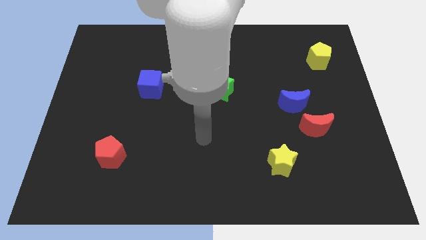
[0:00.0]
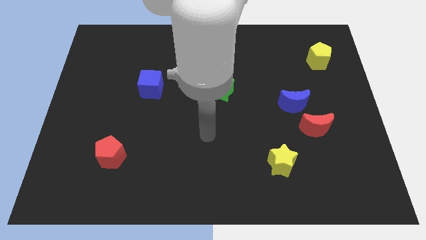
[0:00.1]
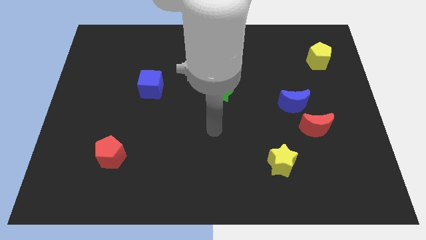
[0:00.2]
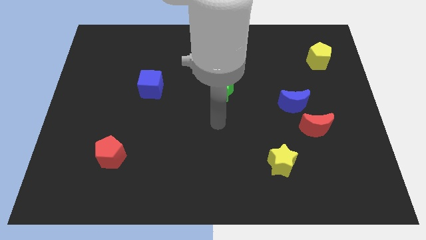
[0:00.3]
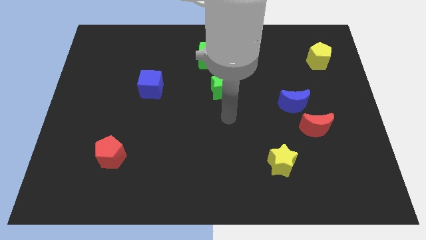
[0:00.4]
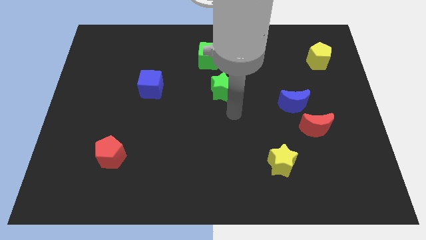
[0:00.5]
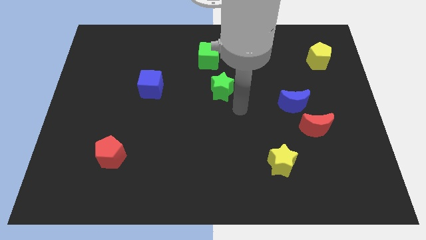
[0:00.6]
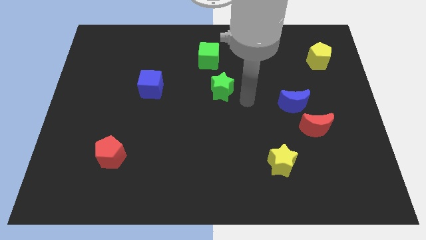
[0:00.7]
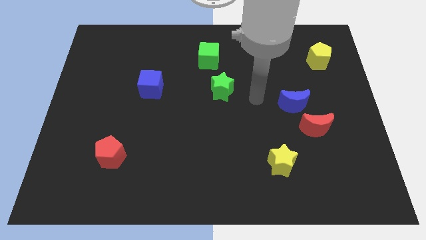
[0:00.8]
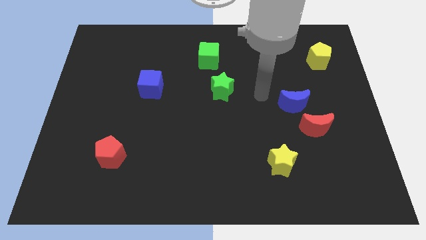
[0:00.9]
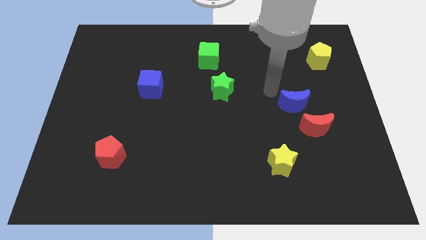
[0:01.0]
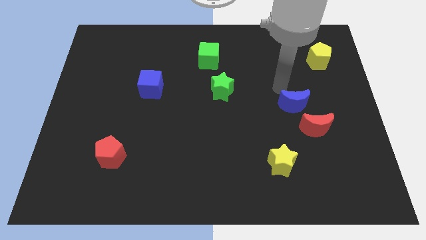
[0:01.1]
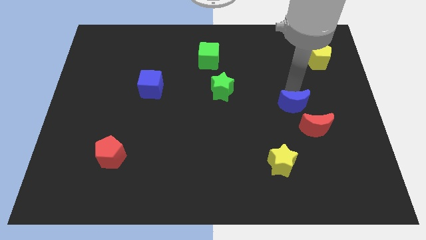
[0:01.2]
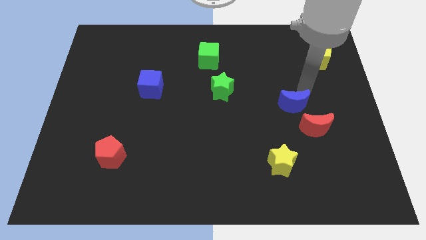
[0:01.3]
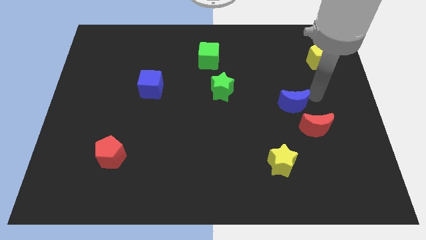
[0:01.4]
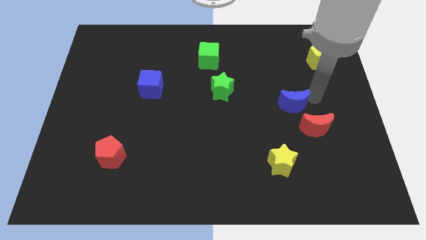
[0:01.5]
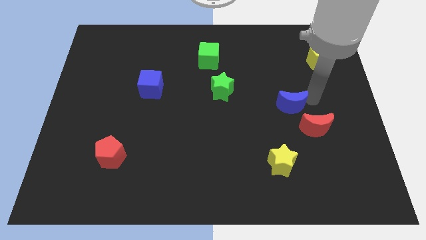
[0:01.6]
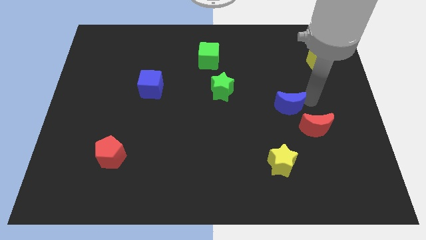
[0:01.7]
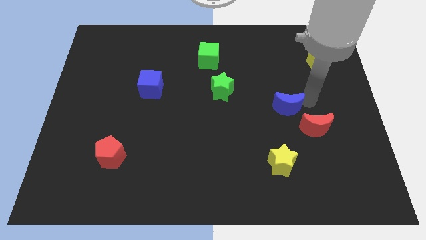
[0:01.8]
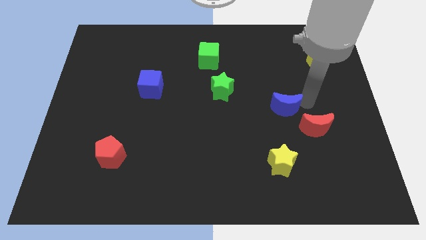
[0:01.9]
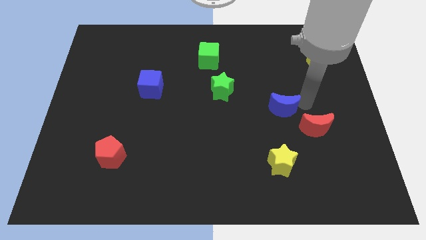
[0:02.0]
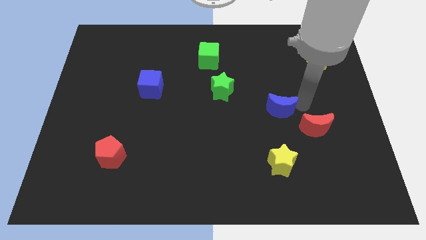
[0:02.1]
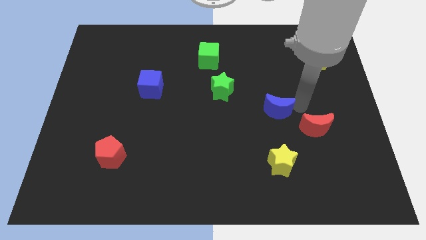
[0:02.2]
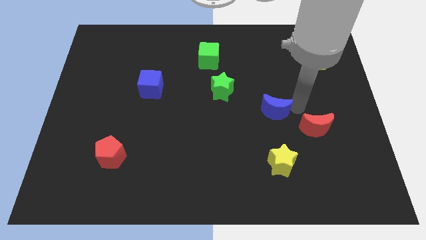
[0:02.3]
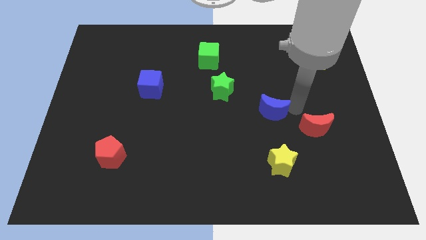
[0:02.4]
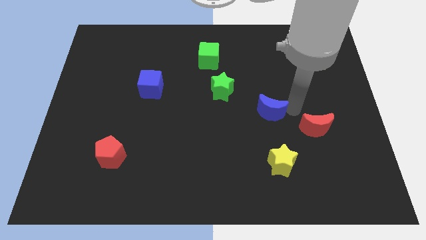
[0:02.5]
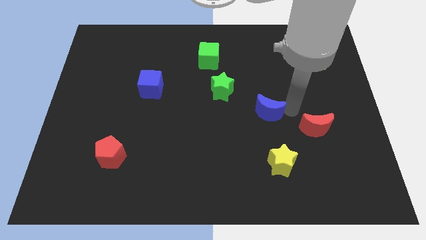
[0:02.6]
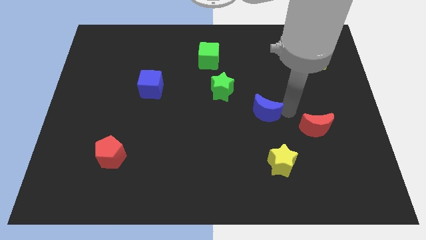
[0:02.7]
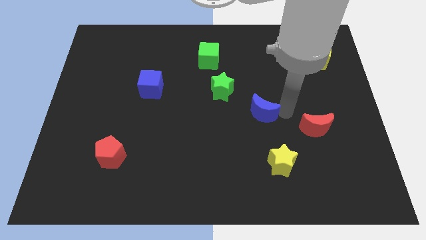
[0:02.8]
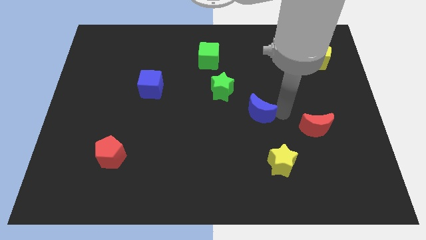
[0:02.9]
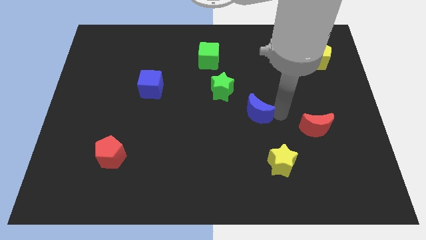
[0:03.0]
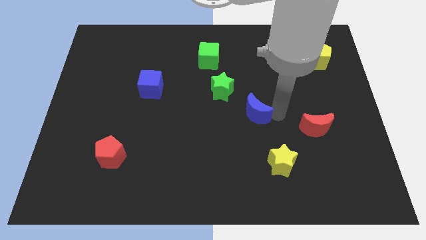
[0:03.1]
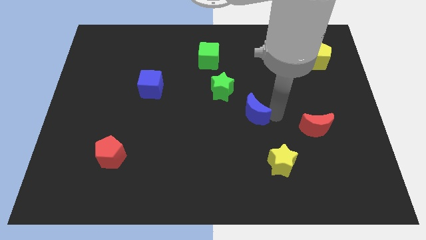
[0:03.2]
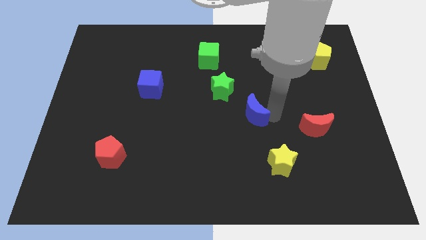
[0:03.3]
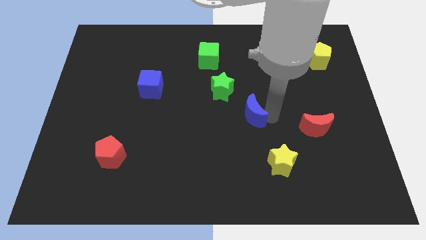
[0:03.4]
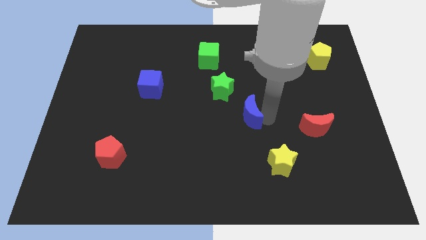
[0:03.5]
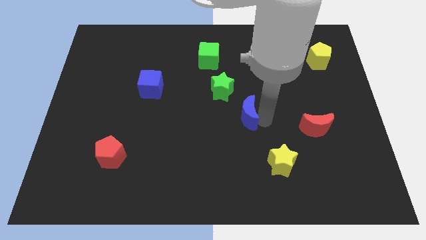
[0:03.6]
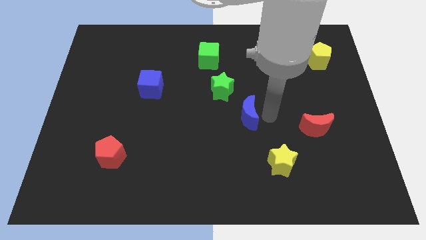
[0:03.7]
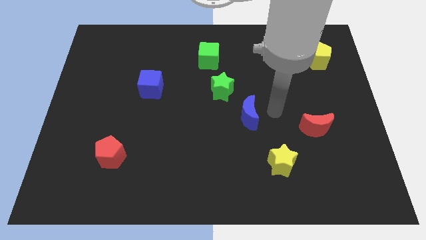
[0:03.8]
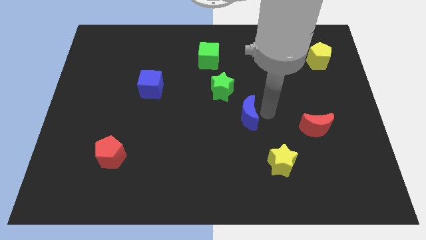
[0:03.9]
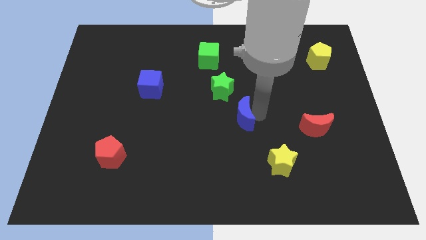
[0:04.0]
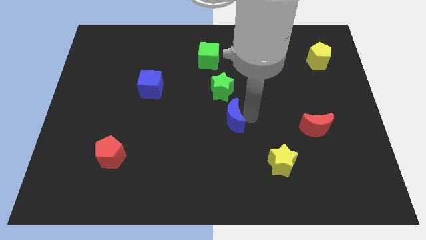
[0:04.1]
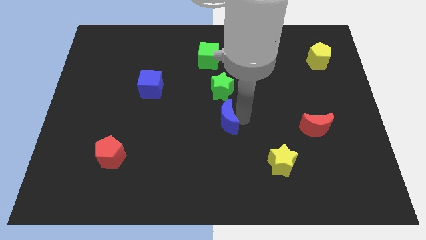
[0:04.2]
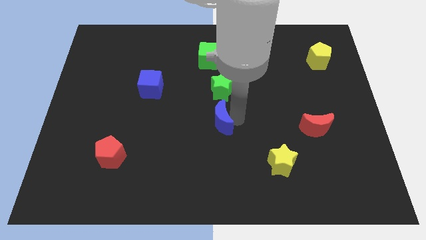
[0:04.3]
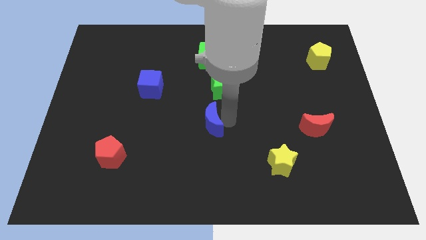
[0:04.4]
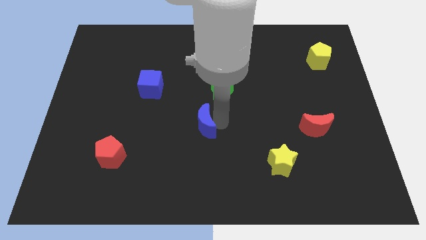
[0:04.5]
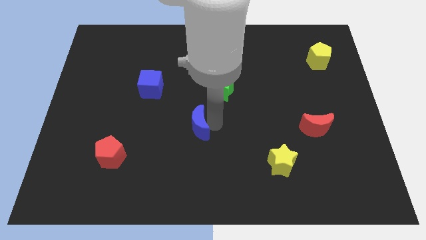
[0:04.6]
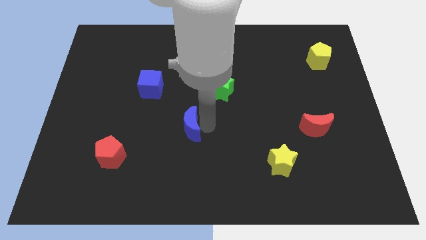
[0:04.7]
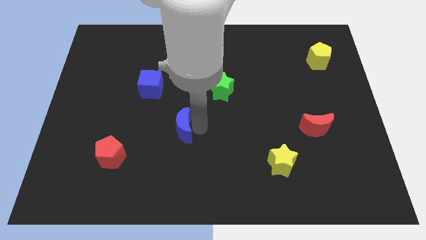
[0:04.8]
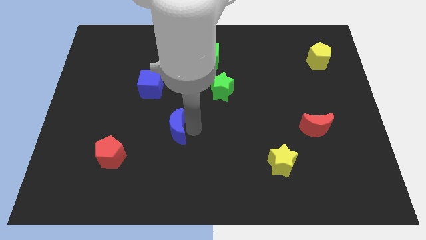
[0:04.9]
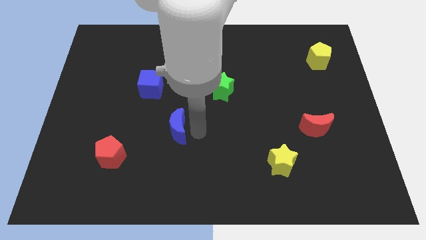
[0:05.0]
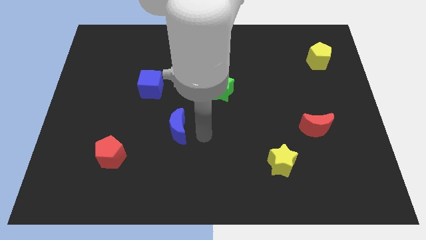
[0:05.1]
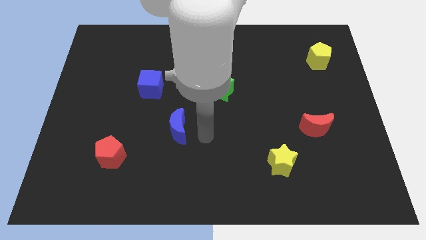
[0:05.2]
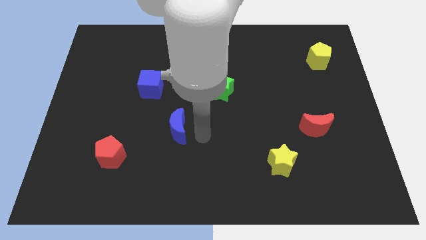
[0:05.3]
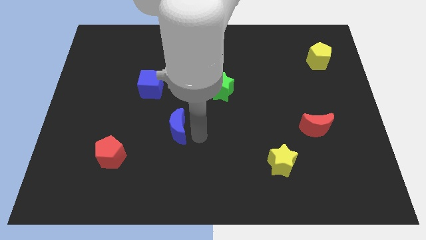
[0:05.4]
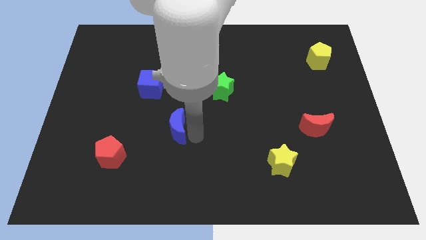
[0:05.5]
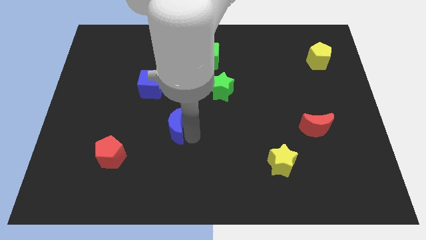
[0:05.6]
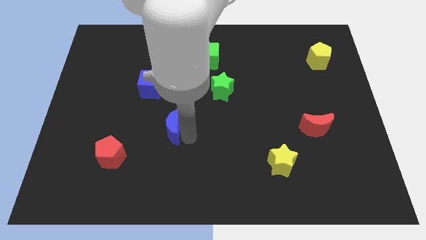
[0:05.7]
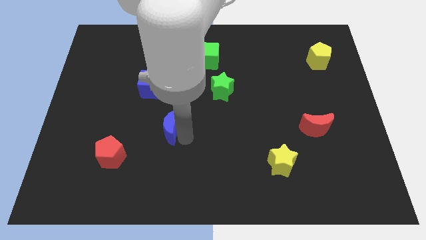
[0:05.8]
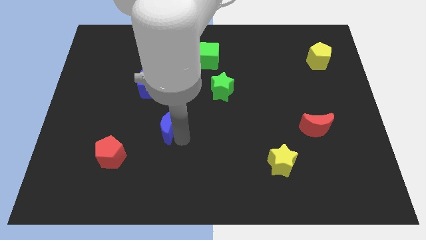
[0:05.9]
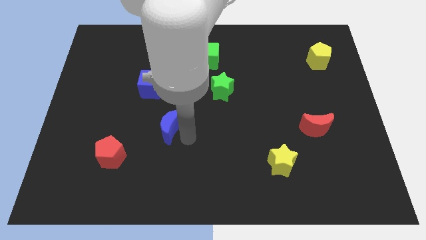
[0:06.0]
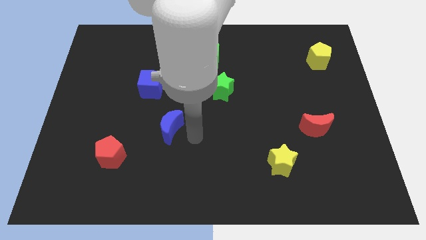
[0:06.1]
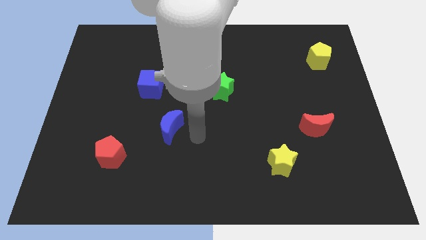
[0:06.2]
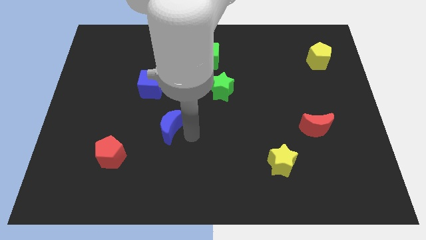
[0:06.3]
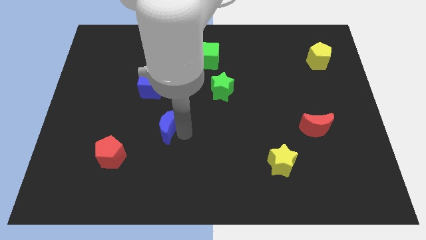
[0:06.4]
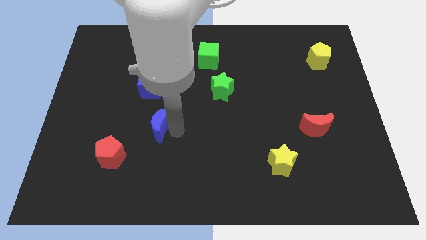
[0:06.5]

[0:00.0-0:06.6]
move the blue moon below the blue cube

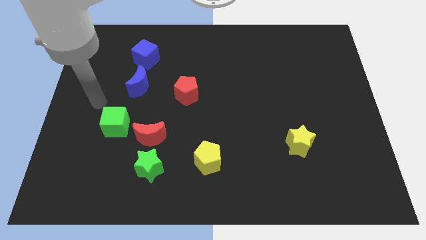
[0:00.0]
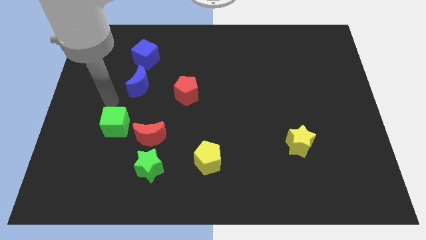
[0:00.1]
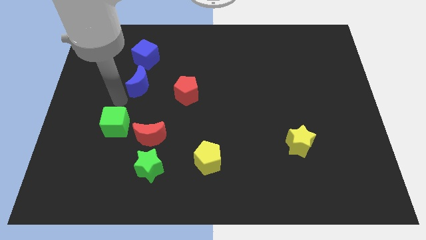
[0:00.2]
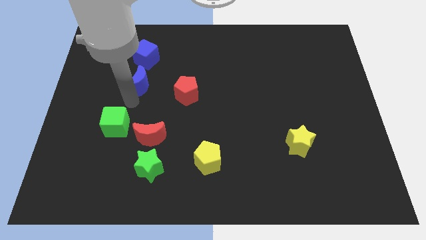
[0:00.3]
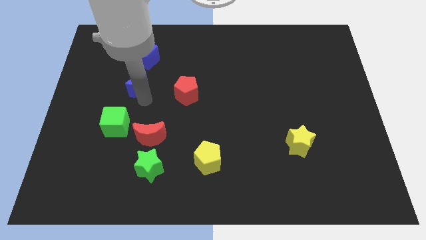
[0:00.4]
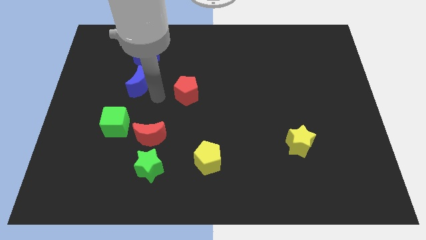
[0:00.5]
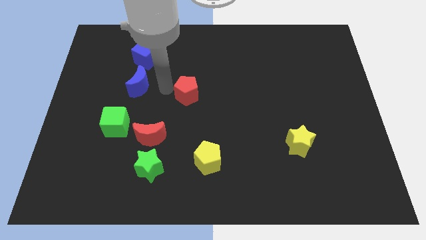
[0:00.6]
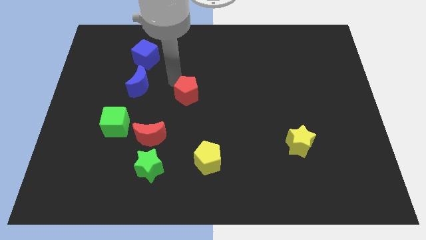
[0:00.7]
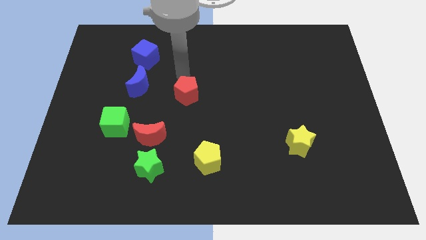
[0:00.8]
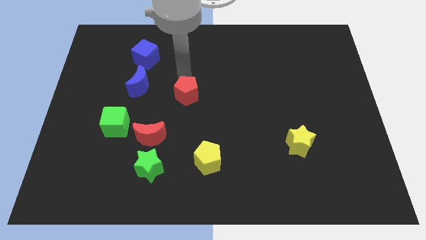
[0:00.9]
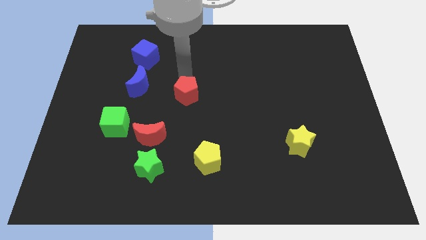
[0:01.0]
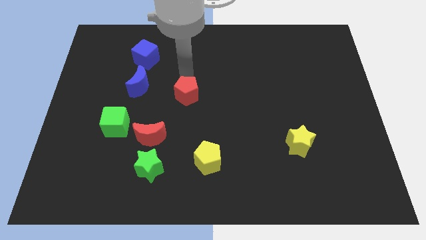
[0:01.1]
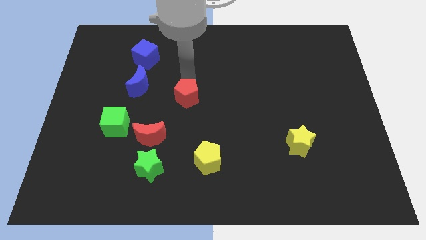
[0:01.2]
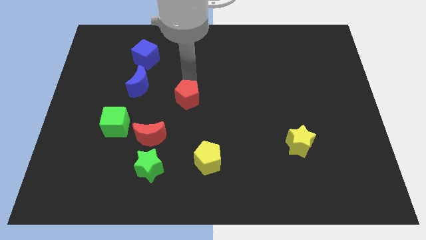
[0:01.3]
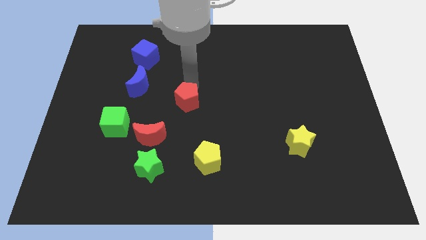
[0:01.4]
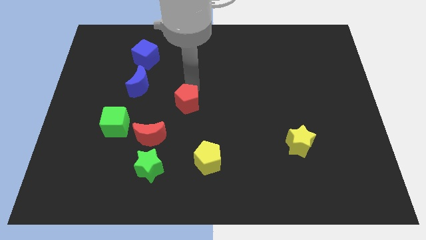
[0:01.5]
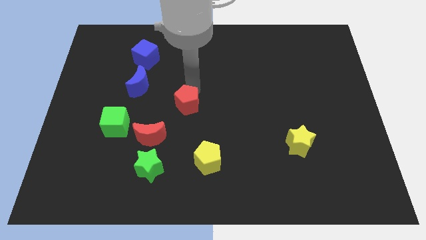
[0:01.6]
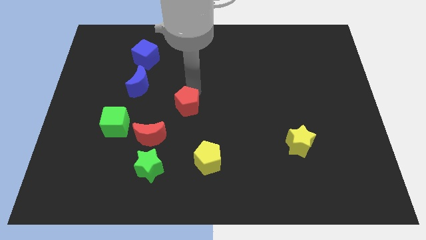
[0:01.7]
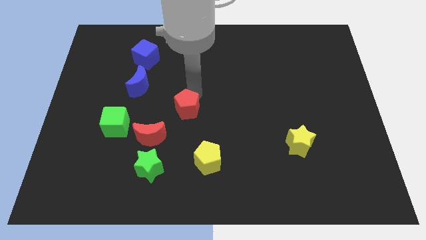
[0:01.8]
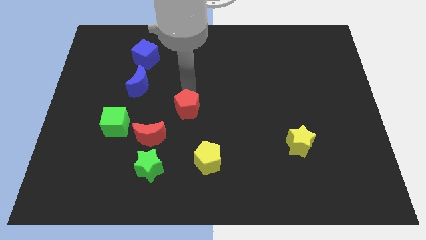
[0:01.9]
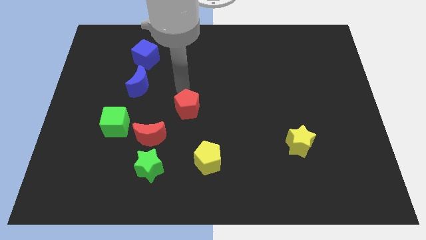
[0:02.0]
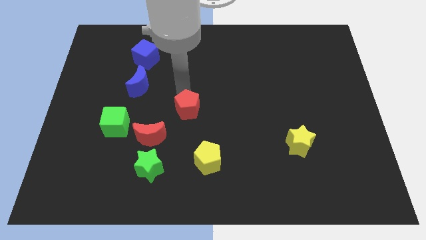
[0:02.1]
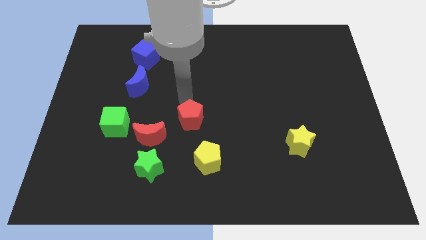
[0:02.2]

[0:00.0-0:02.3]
move the red pentagon right of the red moon
